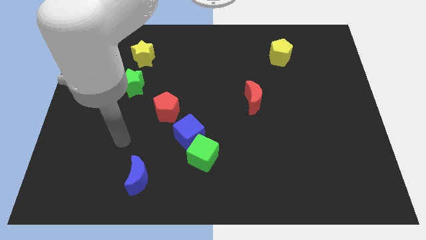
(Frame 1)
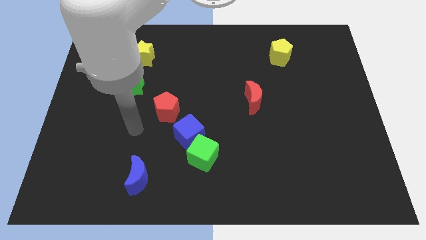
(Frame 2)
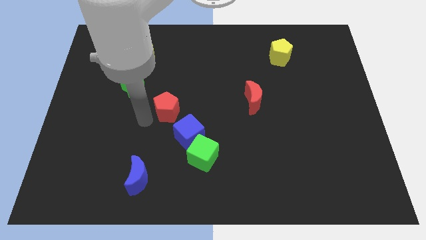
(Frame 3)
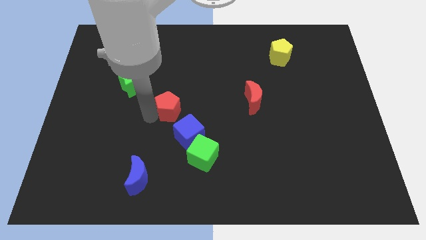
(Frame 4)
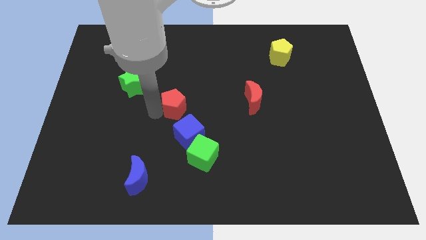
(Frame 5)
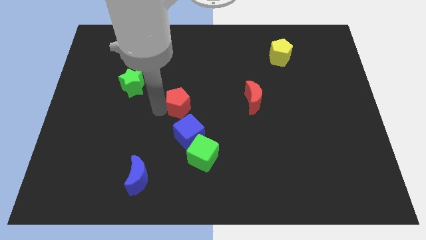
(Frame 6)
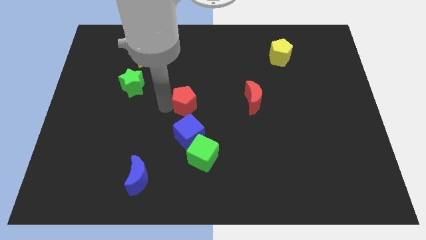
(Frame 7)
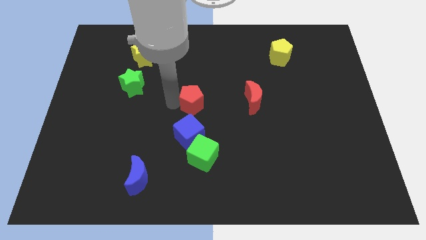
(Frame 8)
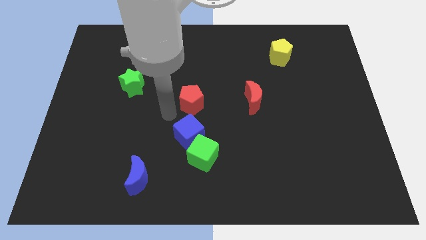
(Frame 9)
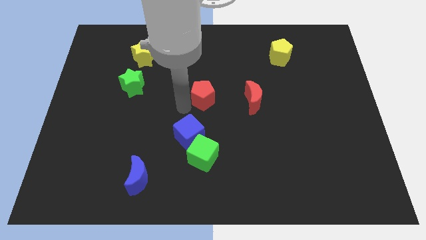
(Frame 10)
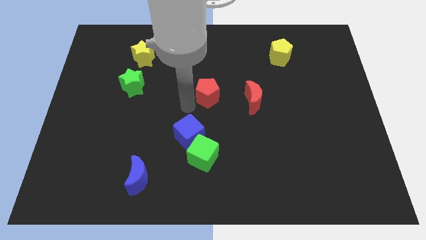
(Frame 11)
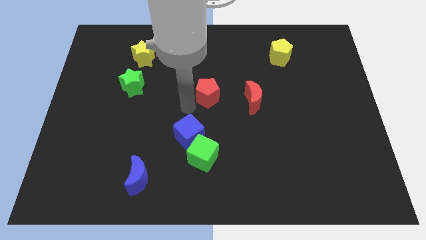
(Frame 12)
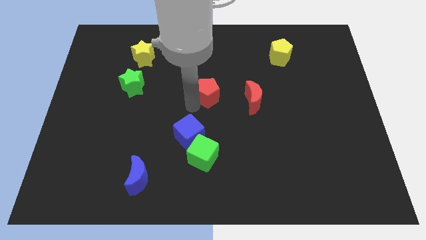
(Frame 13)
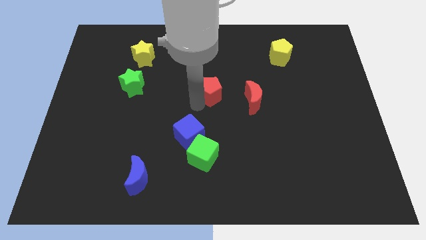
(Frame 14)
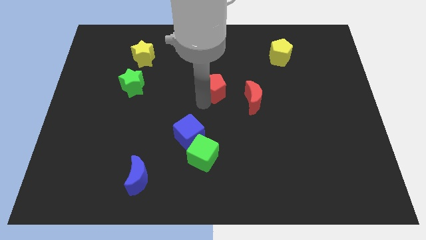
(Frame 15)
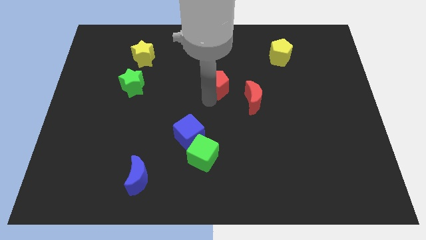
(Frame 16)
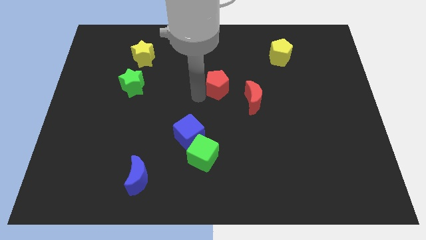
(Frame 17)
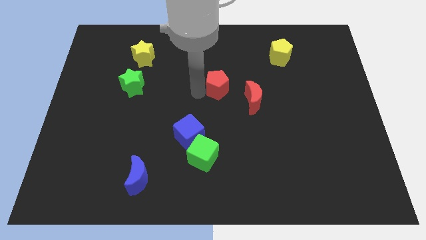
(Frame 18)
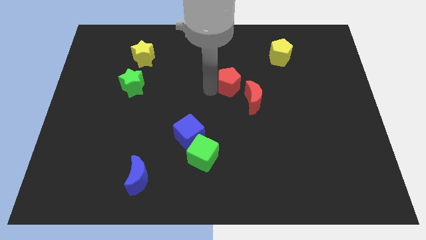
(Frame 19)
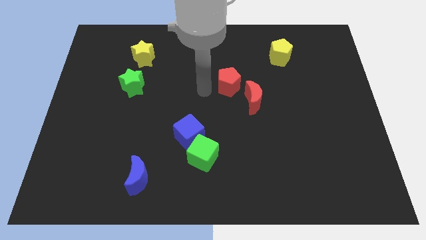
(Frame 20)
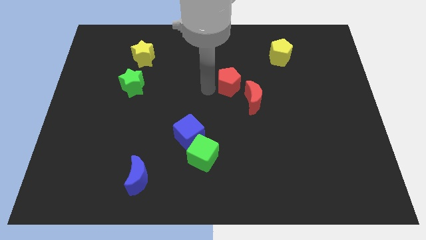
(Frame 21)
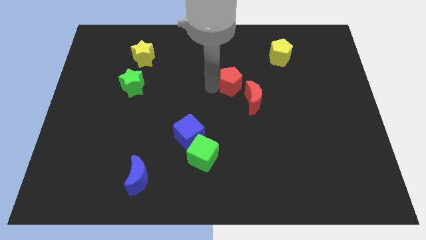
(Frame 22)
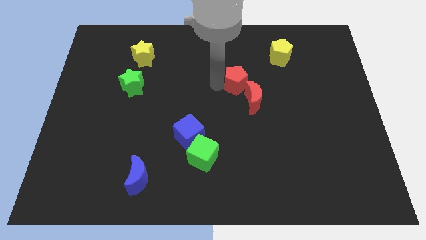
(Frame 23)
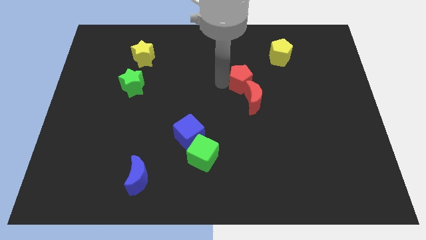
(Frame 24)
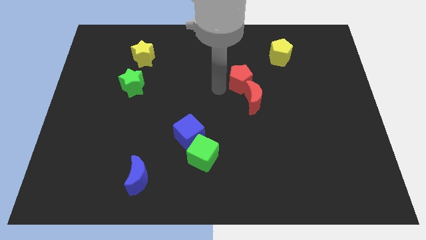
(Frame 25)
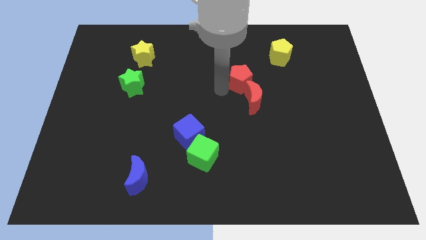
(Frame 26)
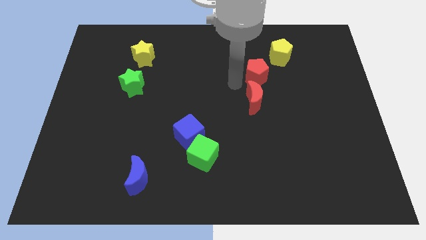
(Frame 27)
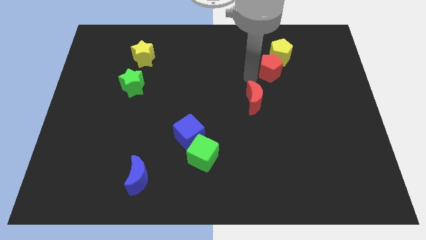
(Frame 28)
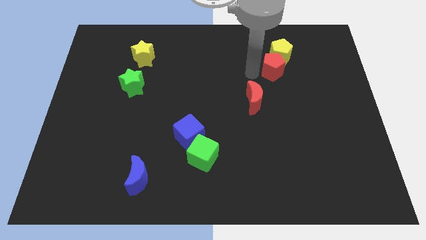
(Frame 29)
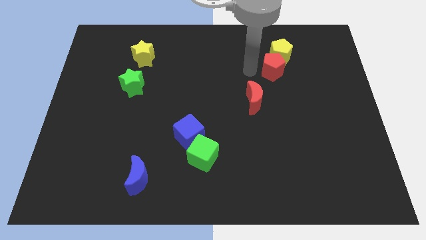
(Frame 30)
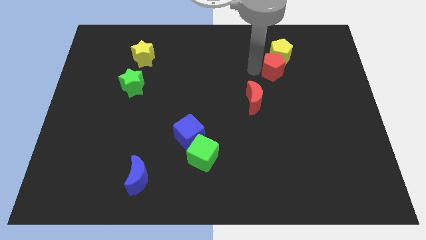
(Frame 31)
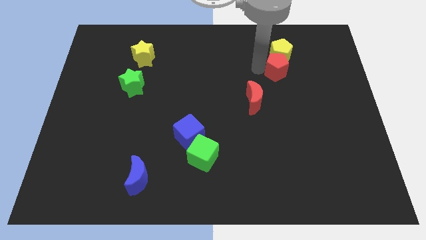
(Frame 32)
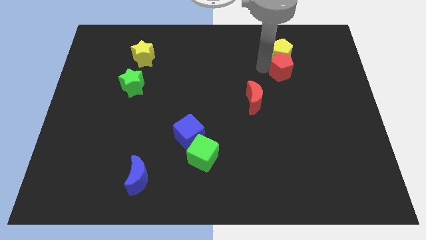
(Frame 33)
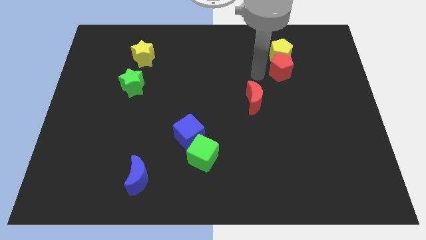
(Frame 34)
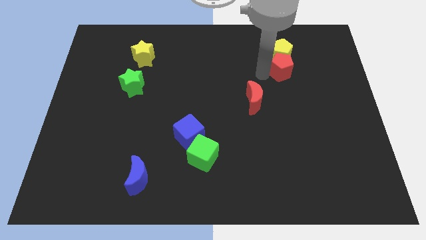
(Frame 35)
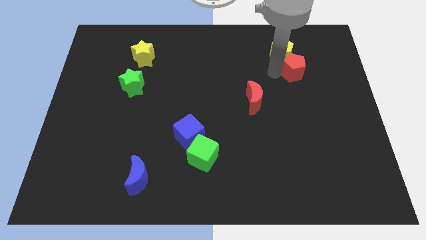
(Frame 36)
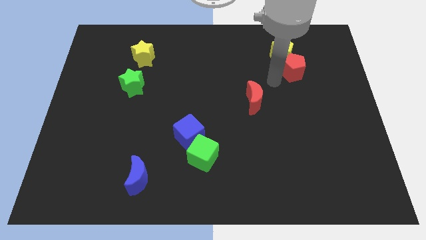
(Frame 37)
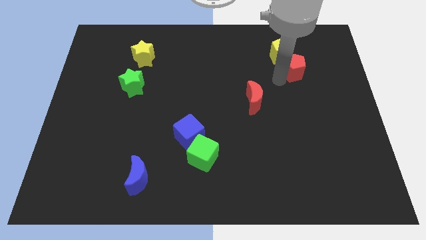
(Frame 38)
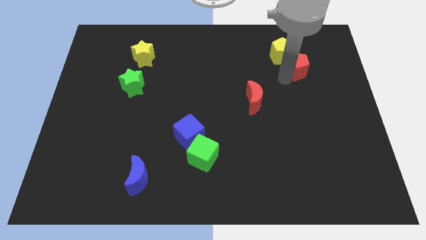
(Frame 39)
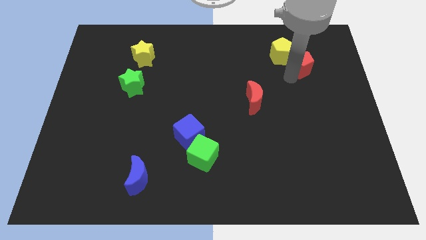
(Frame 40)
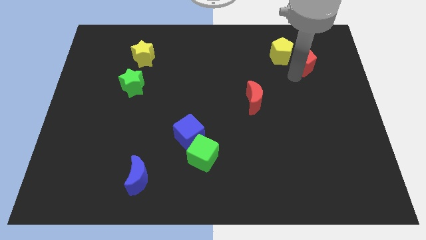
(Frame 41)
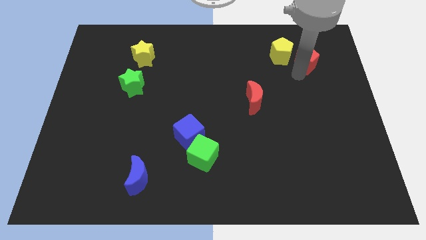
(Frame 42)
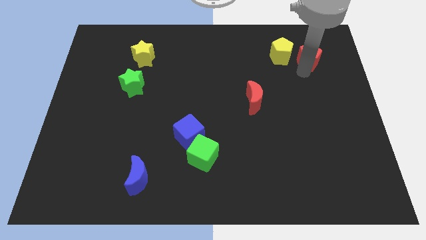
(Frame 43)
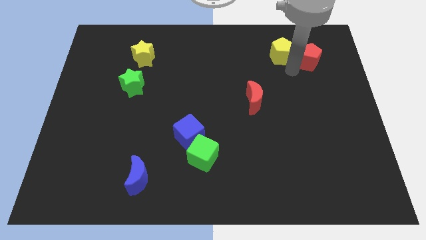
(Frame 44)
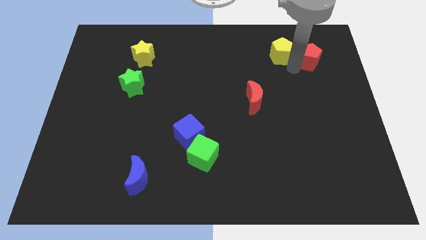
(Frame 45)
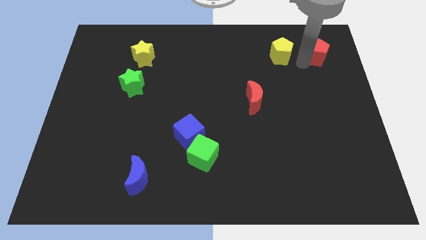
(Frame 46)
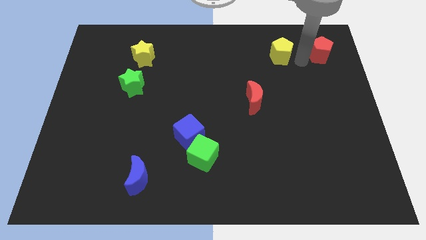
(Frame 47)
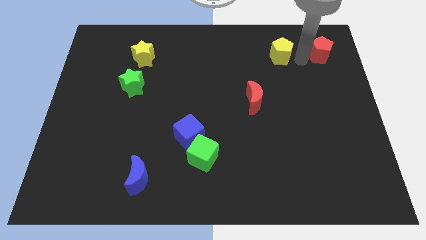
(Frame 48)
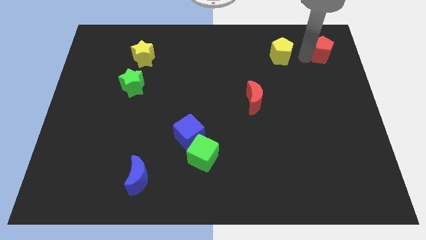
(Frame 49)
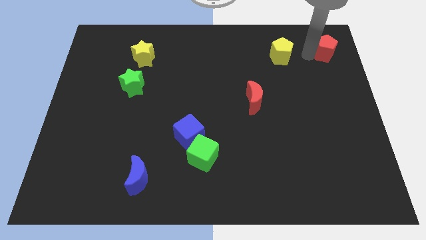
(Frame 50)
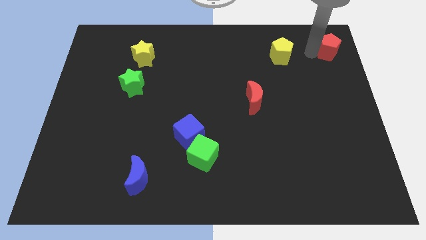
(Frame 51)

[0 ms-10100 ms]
put the red pentagon to the top right

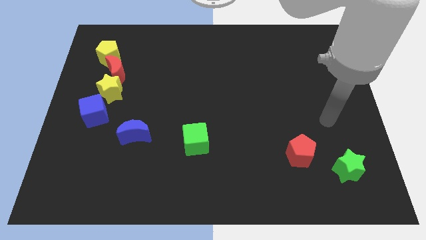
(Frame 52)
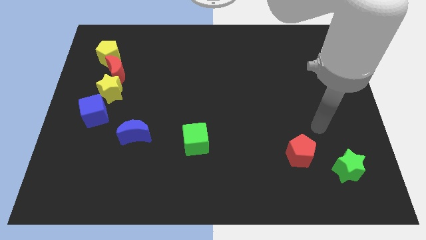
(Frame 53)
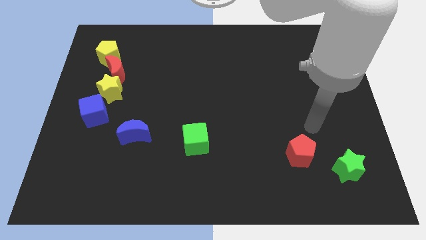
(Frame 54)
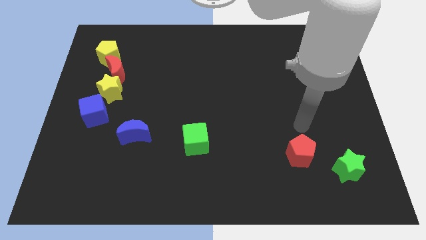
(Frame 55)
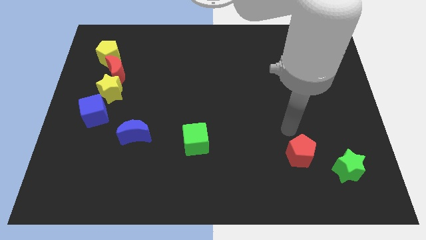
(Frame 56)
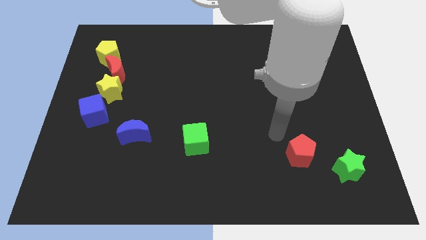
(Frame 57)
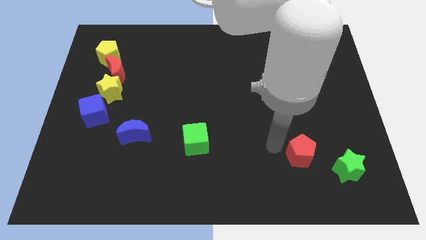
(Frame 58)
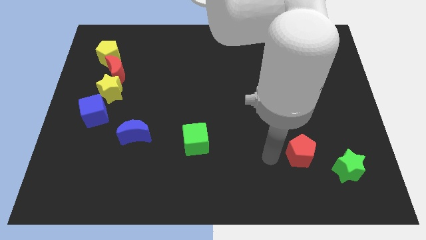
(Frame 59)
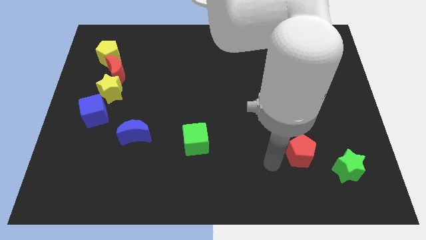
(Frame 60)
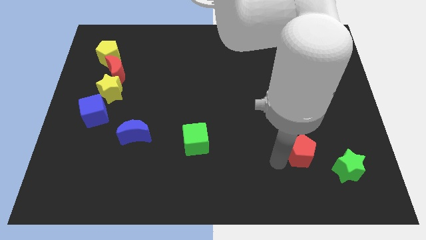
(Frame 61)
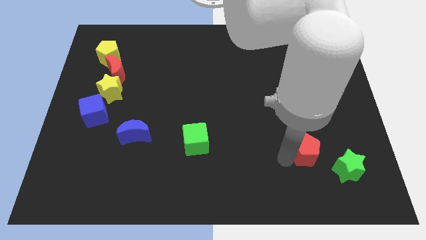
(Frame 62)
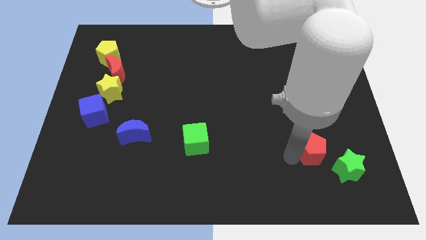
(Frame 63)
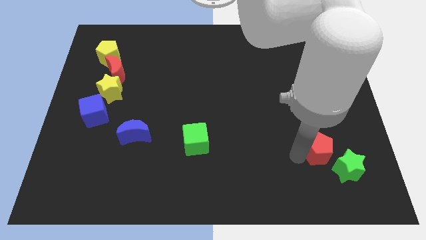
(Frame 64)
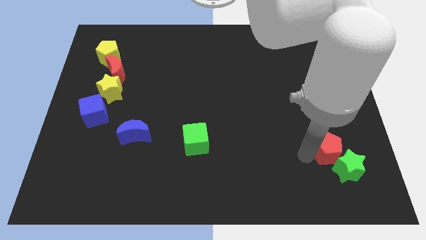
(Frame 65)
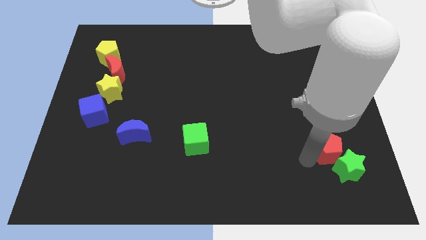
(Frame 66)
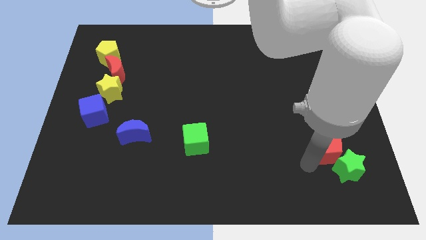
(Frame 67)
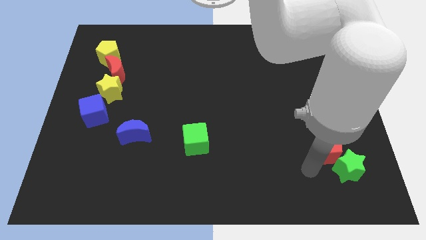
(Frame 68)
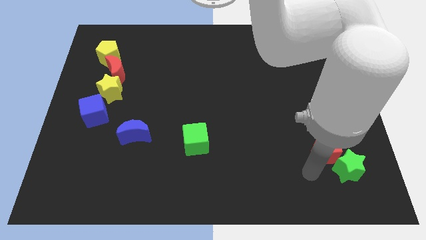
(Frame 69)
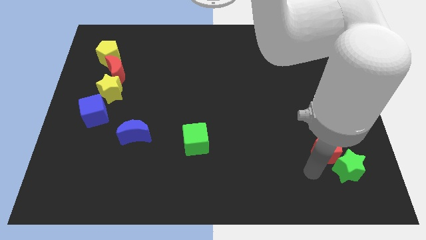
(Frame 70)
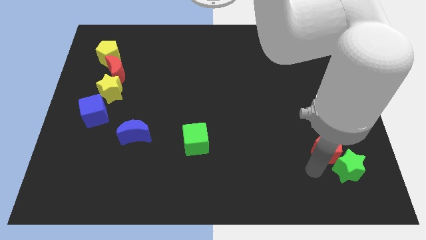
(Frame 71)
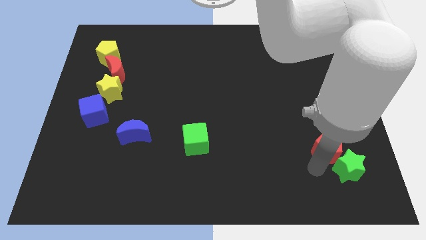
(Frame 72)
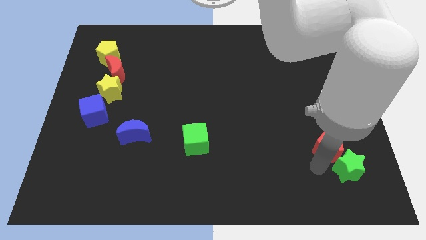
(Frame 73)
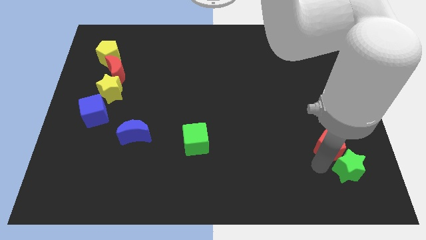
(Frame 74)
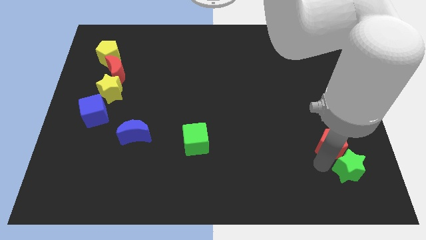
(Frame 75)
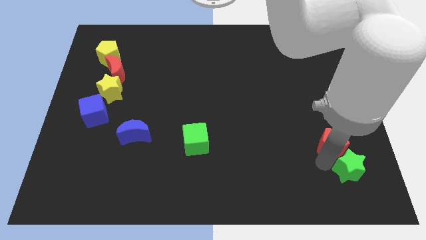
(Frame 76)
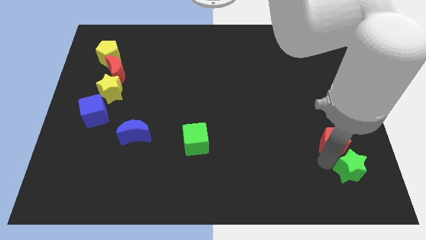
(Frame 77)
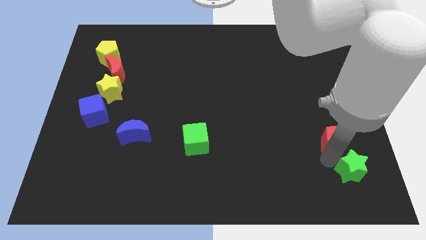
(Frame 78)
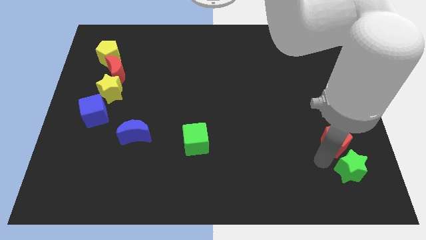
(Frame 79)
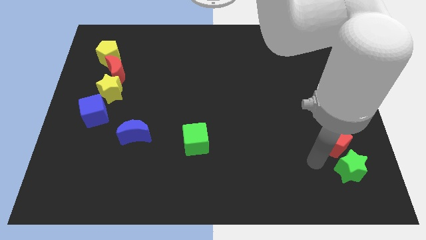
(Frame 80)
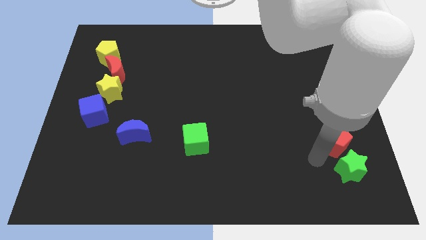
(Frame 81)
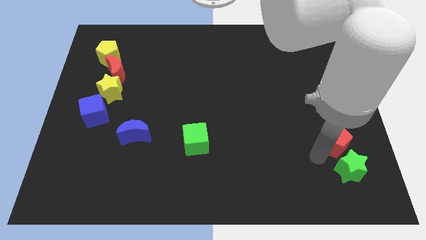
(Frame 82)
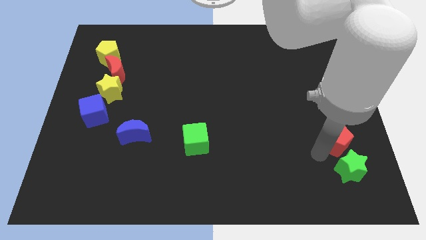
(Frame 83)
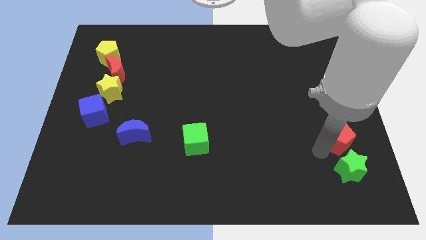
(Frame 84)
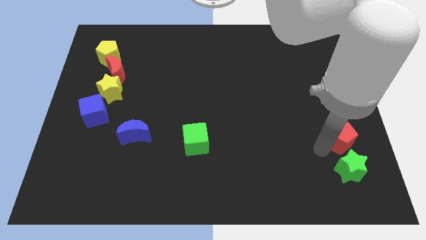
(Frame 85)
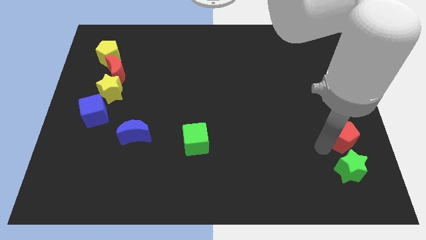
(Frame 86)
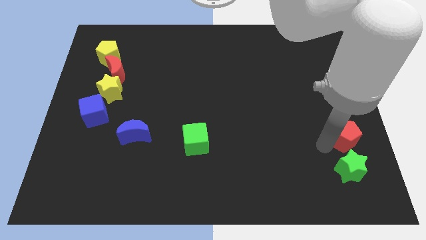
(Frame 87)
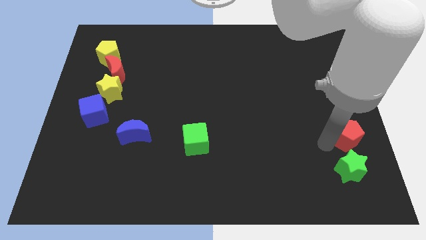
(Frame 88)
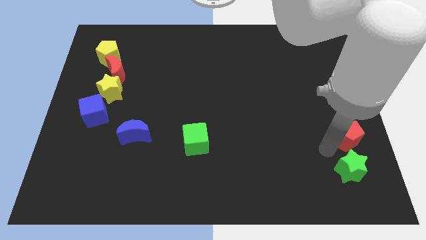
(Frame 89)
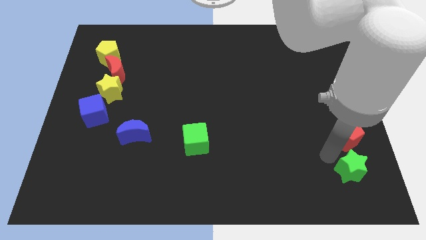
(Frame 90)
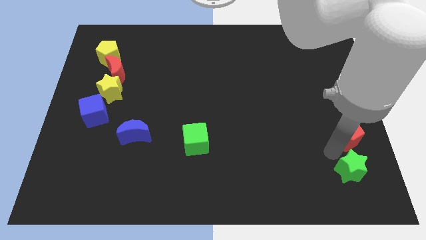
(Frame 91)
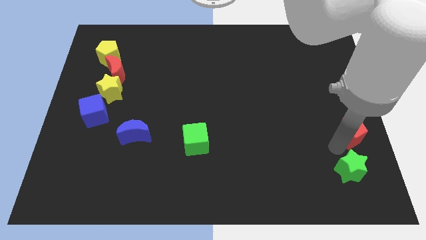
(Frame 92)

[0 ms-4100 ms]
push the red pentagon to the right side of the board
